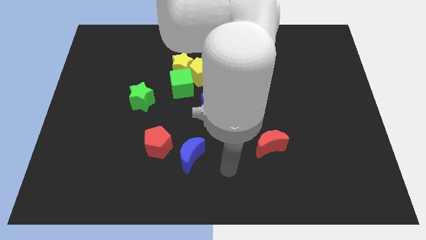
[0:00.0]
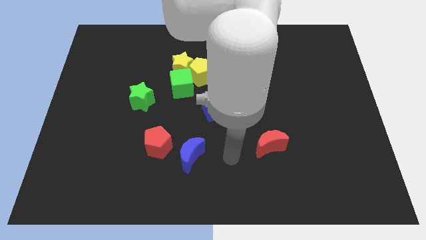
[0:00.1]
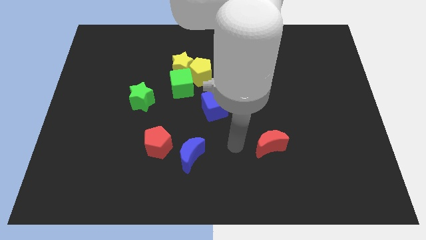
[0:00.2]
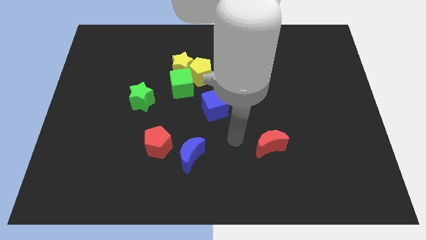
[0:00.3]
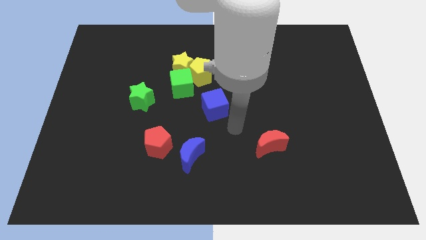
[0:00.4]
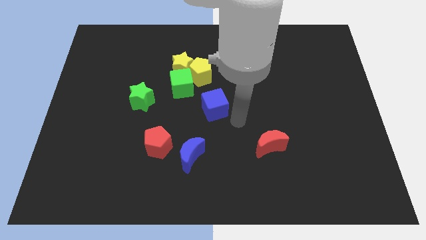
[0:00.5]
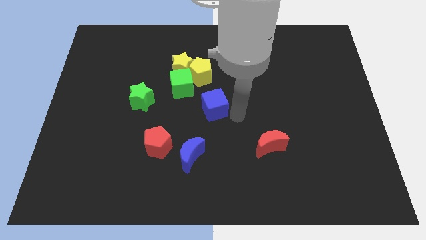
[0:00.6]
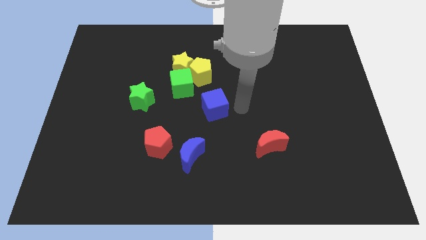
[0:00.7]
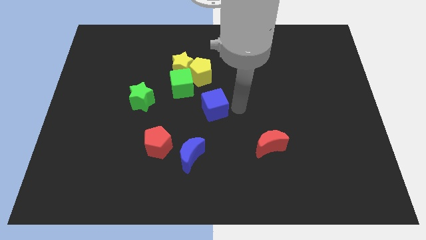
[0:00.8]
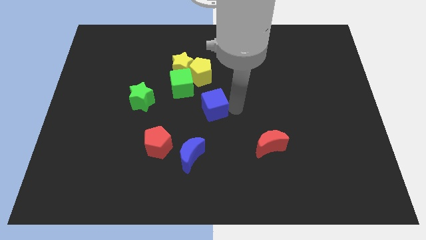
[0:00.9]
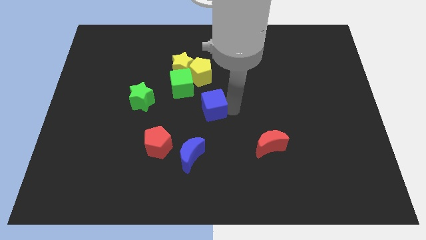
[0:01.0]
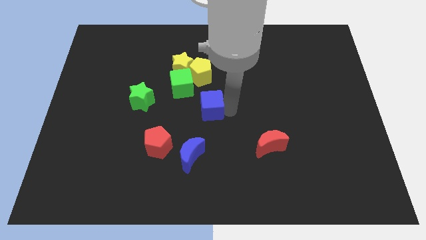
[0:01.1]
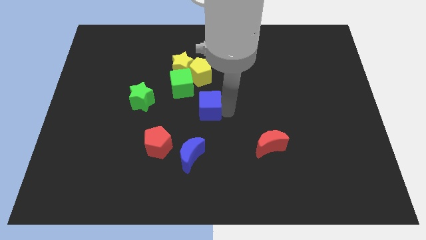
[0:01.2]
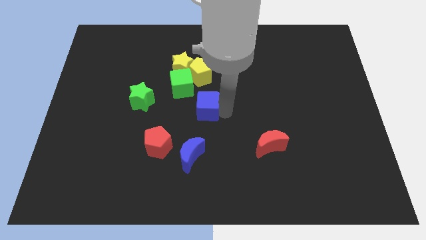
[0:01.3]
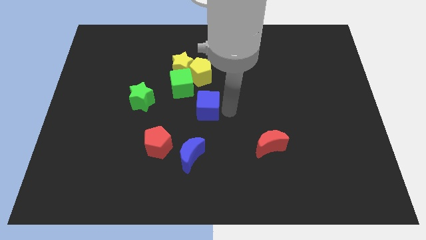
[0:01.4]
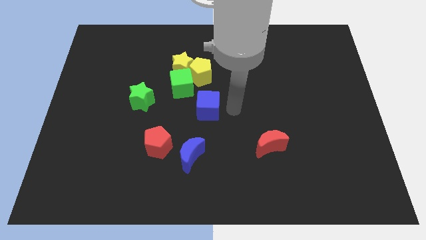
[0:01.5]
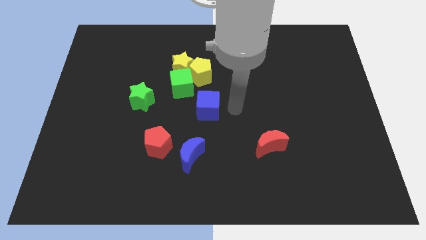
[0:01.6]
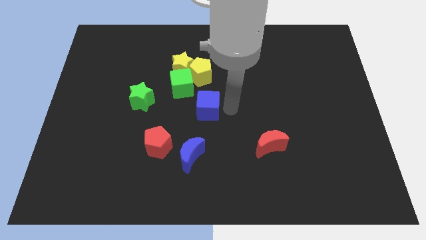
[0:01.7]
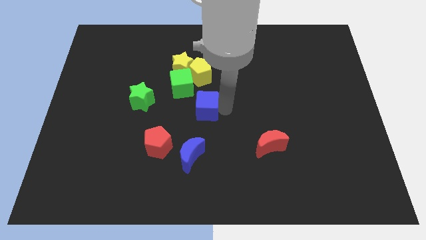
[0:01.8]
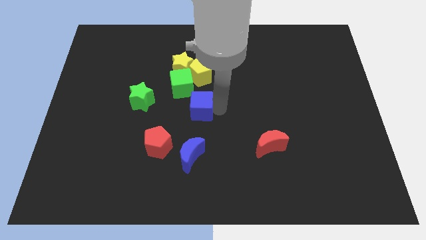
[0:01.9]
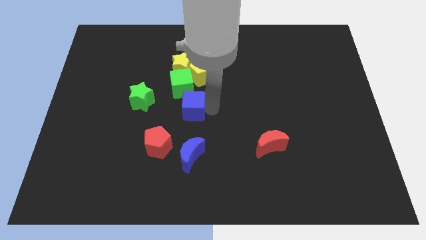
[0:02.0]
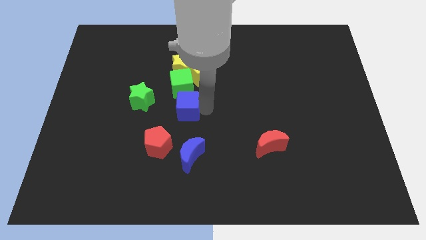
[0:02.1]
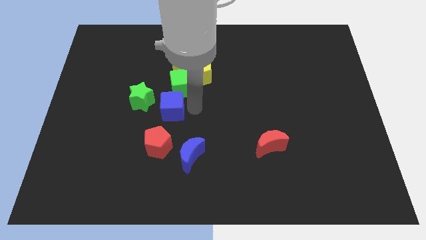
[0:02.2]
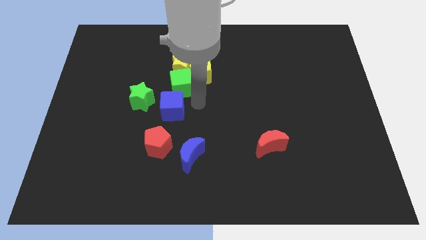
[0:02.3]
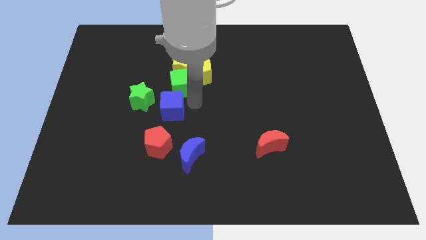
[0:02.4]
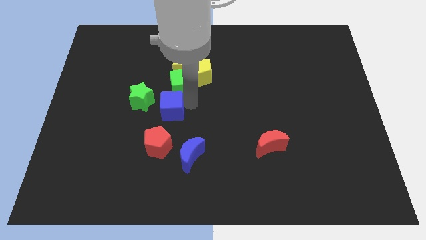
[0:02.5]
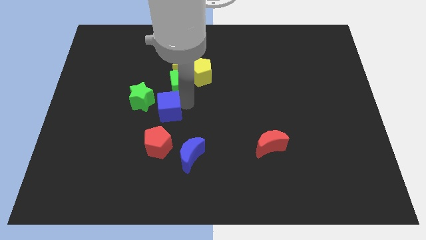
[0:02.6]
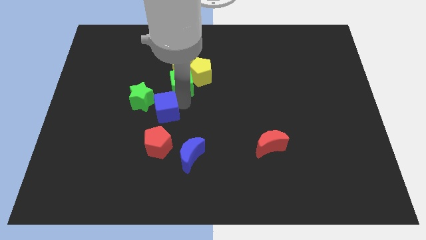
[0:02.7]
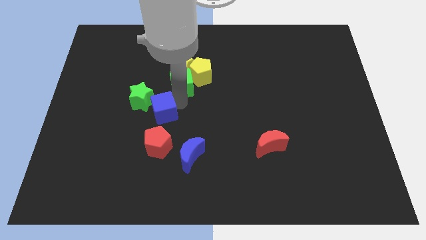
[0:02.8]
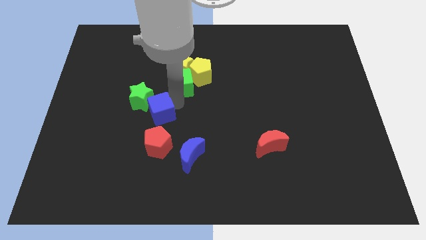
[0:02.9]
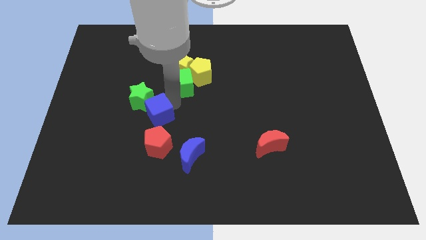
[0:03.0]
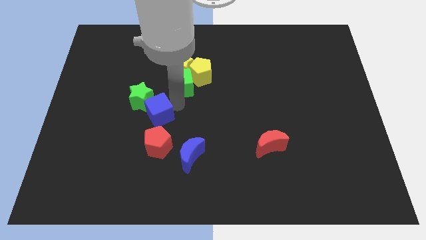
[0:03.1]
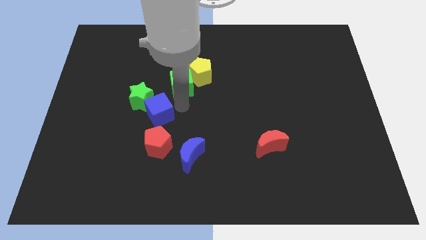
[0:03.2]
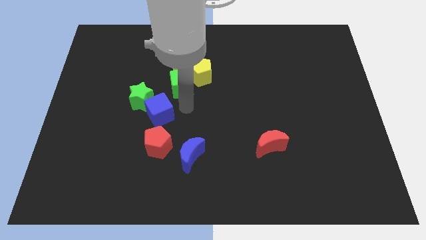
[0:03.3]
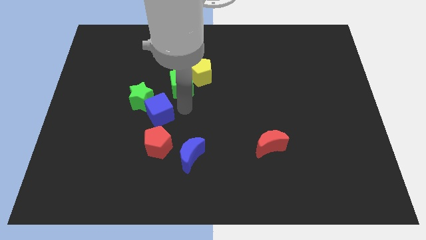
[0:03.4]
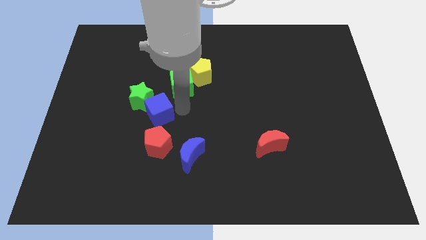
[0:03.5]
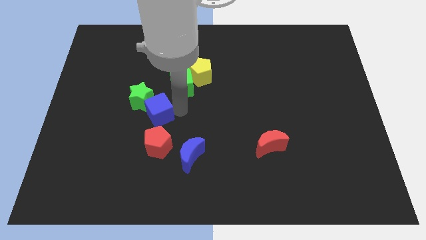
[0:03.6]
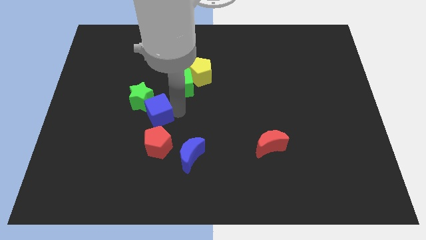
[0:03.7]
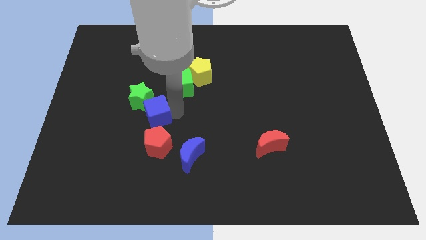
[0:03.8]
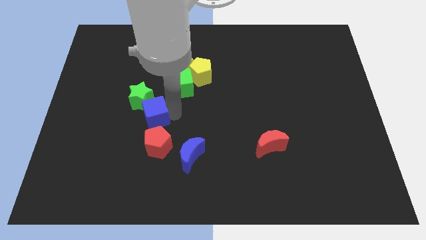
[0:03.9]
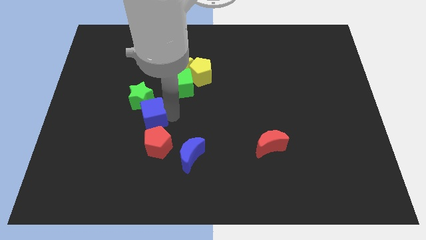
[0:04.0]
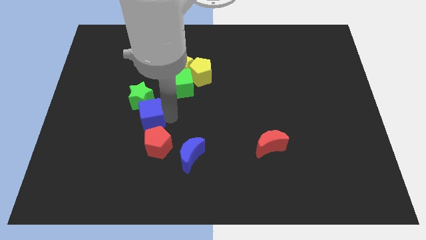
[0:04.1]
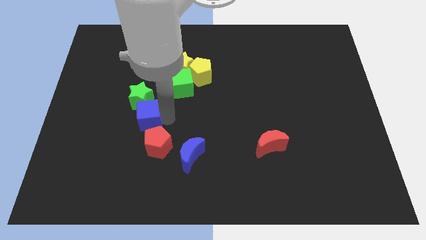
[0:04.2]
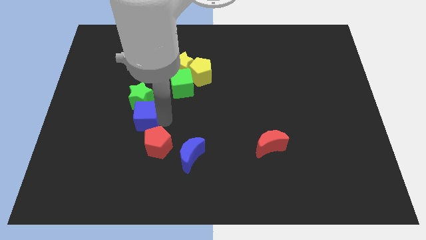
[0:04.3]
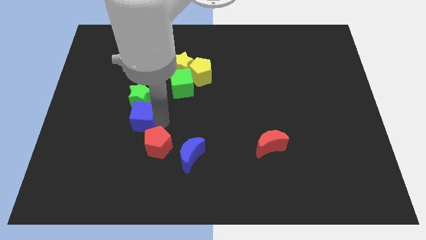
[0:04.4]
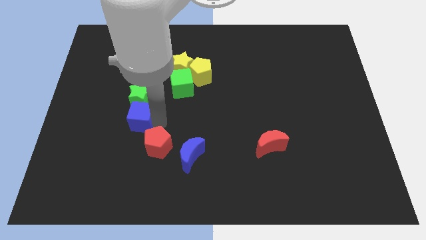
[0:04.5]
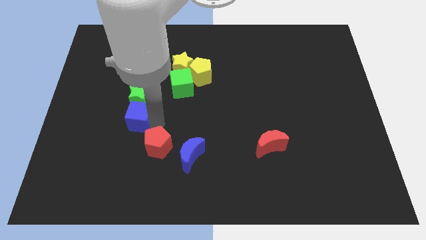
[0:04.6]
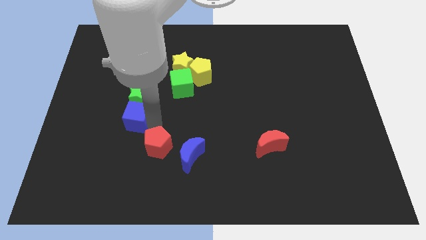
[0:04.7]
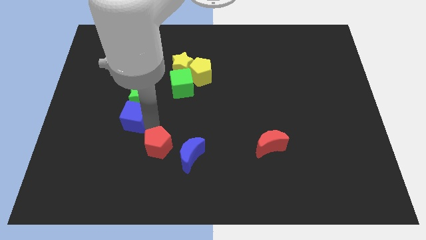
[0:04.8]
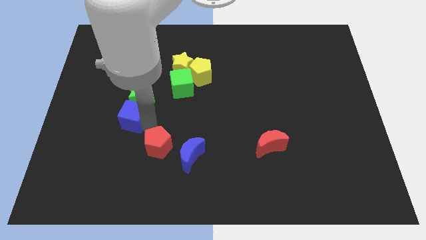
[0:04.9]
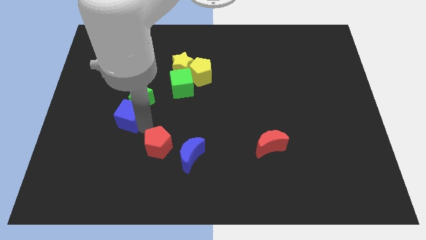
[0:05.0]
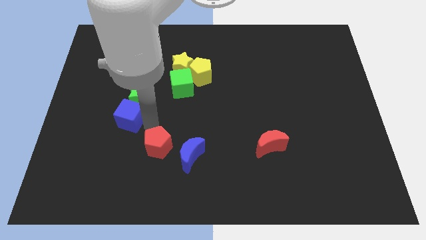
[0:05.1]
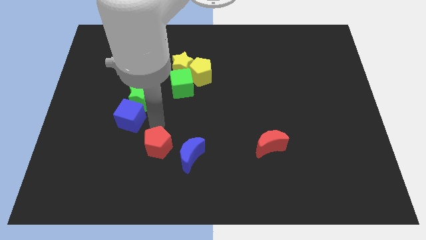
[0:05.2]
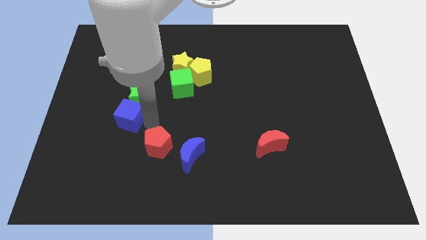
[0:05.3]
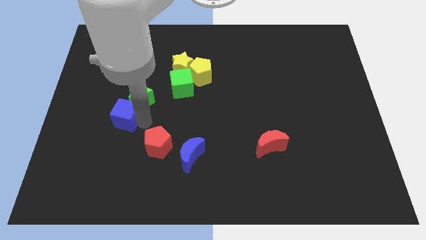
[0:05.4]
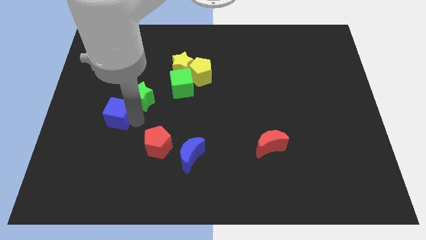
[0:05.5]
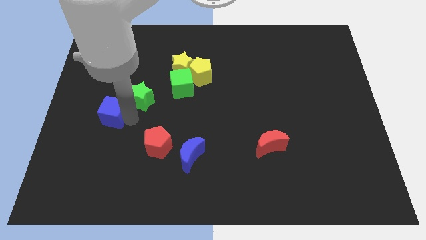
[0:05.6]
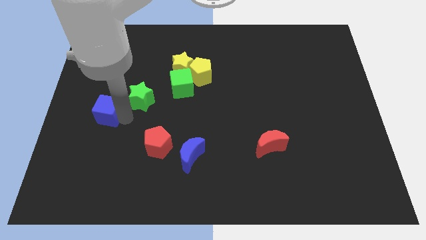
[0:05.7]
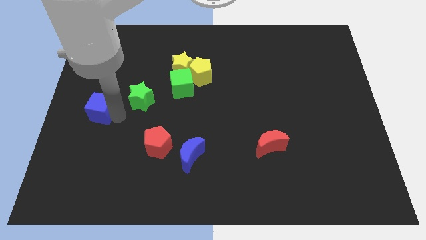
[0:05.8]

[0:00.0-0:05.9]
move the blue cube to the center left

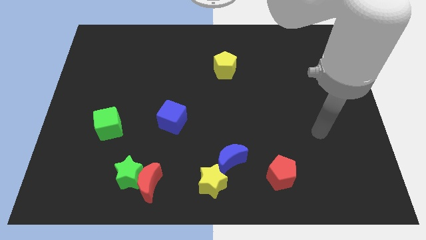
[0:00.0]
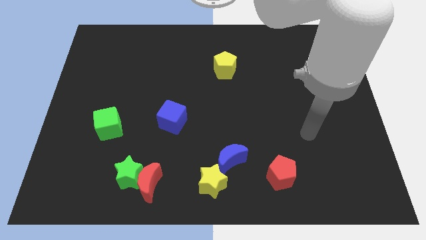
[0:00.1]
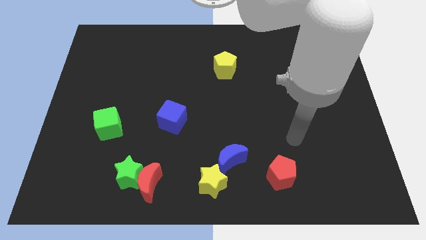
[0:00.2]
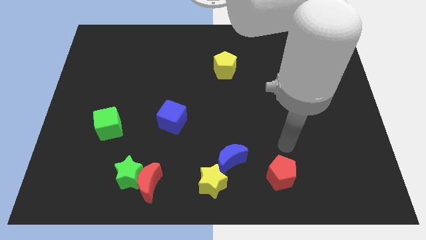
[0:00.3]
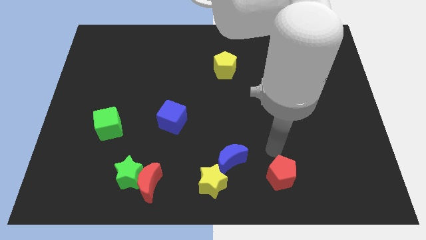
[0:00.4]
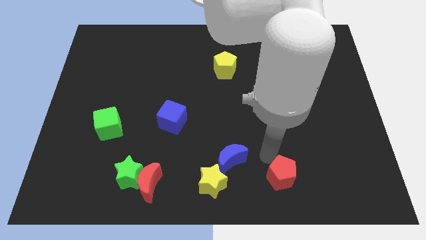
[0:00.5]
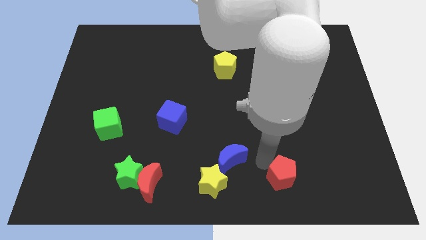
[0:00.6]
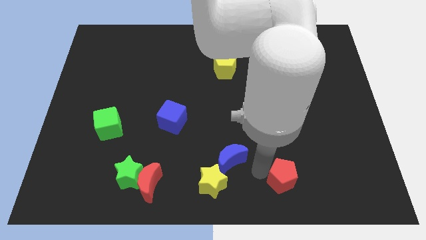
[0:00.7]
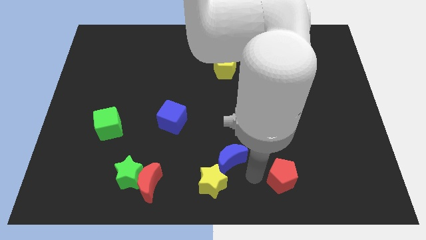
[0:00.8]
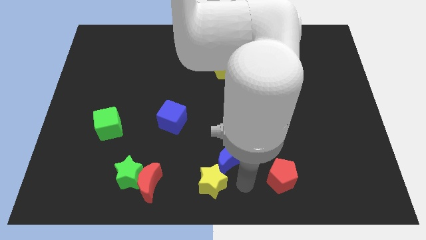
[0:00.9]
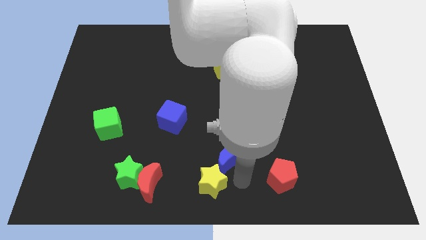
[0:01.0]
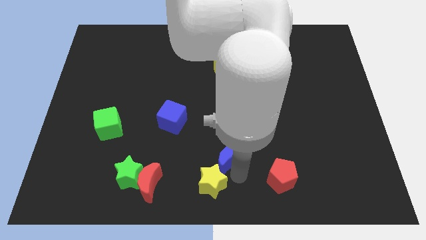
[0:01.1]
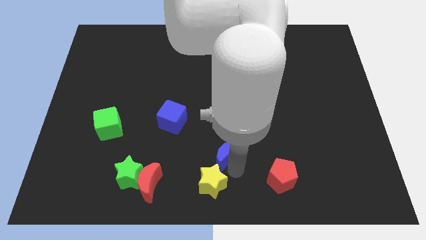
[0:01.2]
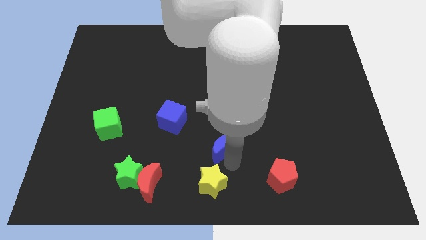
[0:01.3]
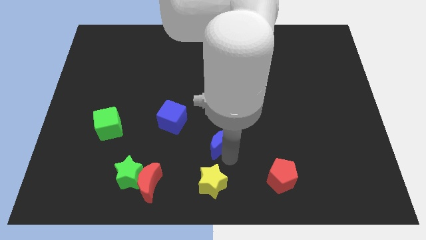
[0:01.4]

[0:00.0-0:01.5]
move the blue moon to the middle of the board
